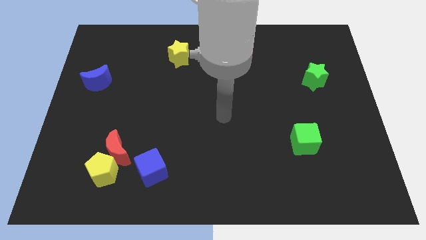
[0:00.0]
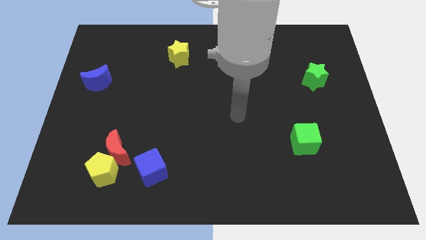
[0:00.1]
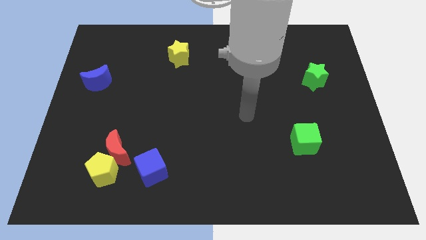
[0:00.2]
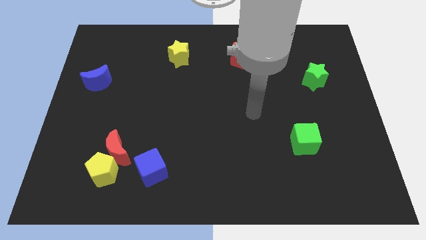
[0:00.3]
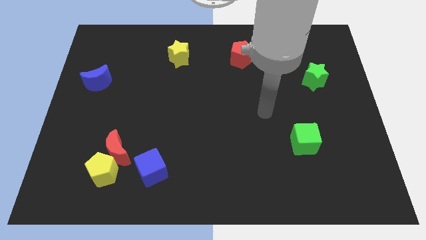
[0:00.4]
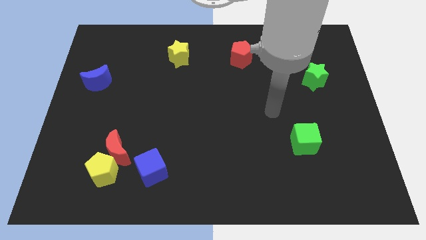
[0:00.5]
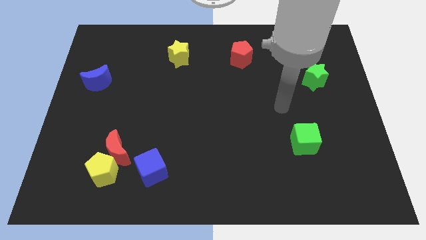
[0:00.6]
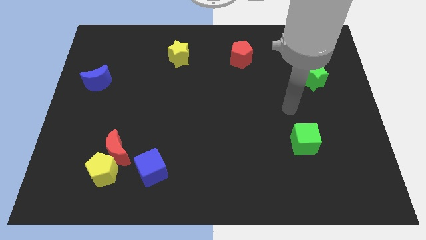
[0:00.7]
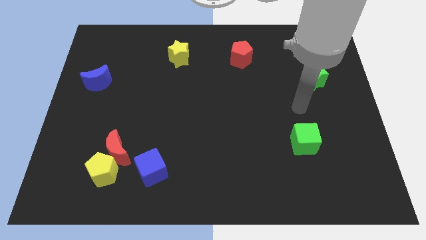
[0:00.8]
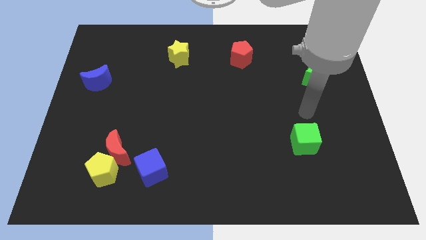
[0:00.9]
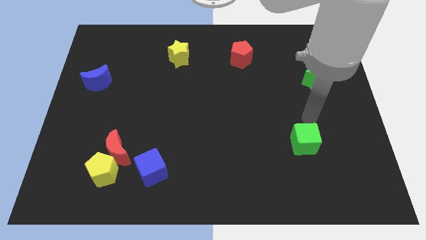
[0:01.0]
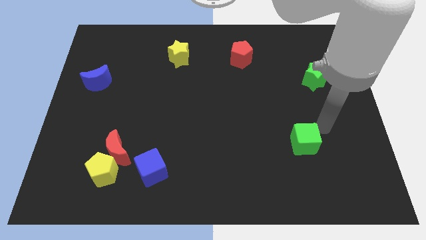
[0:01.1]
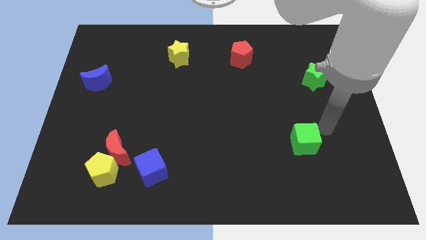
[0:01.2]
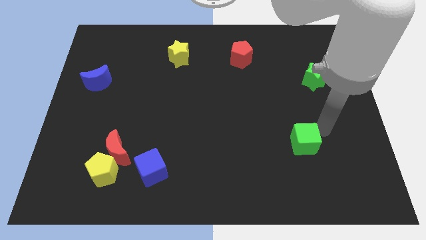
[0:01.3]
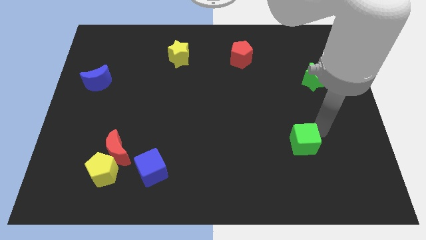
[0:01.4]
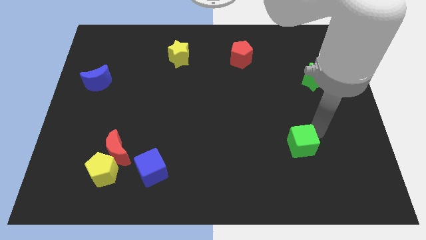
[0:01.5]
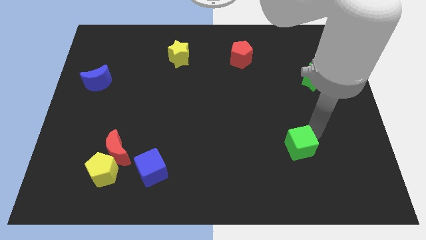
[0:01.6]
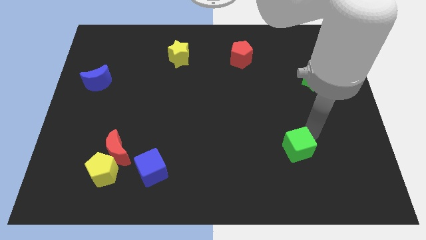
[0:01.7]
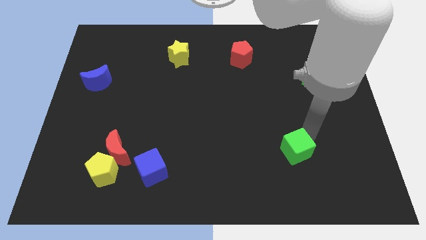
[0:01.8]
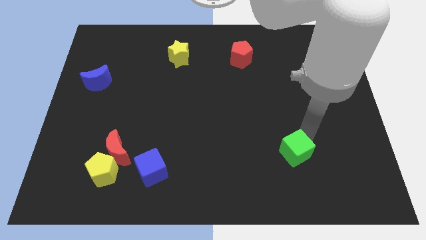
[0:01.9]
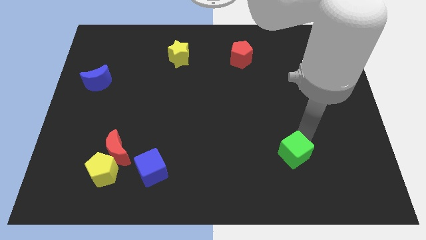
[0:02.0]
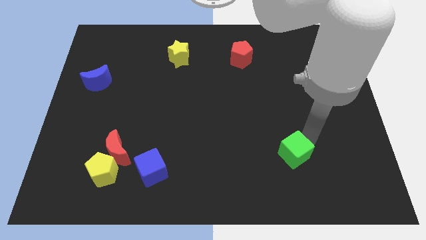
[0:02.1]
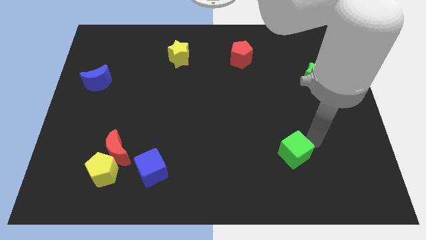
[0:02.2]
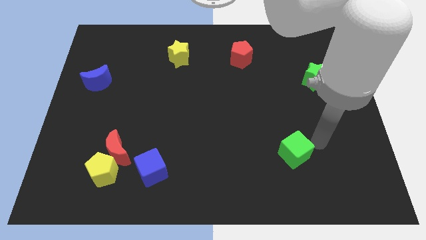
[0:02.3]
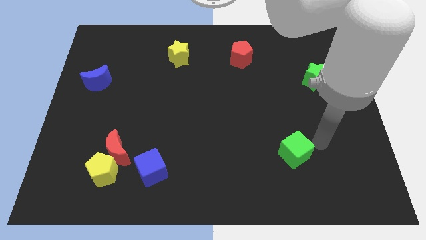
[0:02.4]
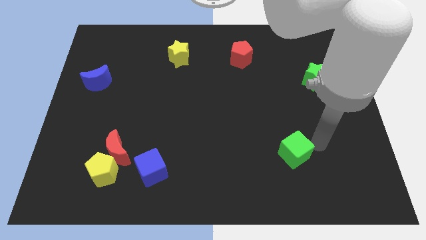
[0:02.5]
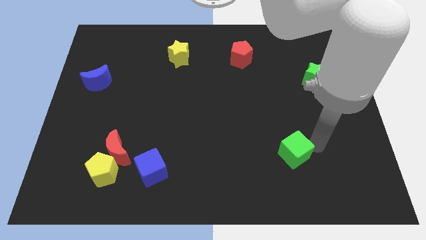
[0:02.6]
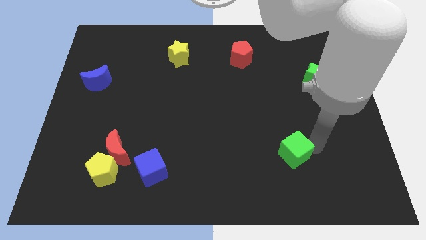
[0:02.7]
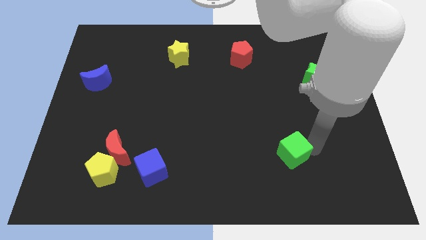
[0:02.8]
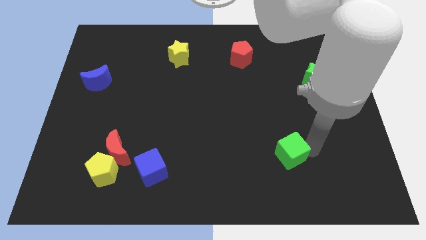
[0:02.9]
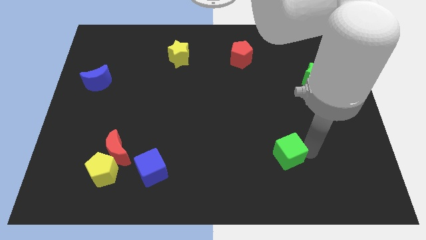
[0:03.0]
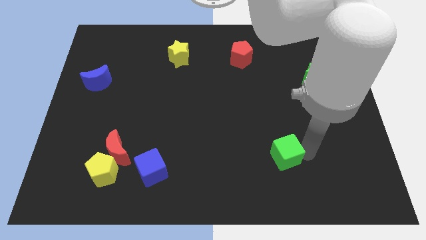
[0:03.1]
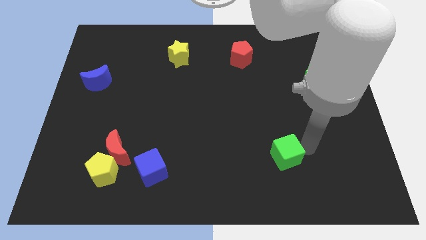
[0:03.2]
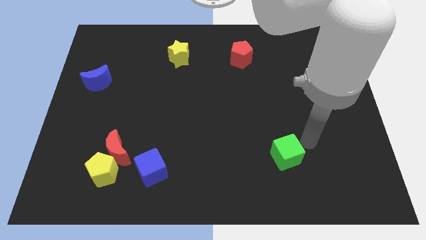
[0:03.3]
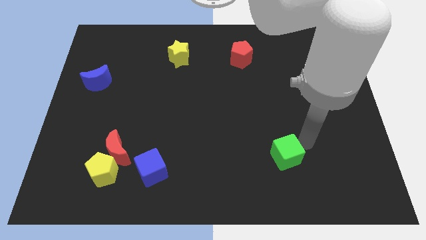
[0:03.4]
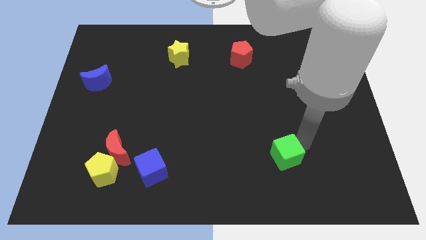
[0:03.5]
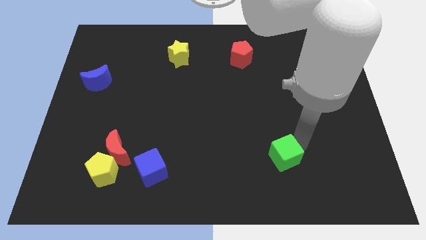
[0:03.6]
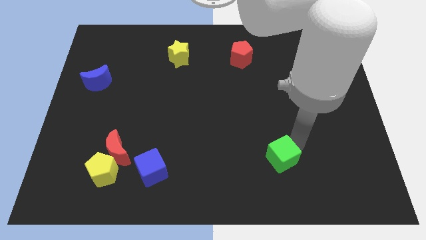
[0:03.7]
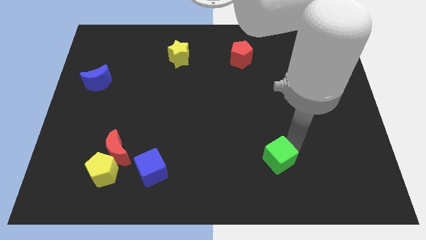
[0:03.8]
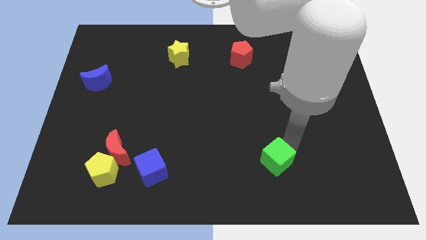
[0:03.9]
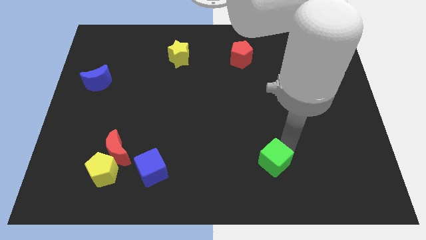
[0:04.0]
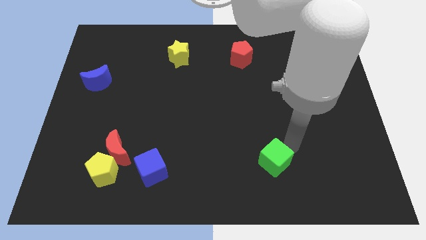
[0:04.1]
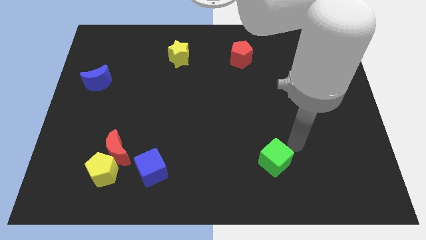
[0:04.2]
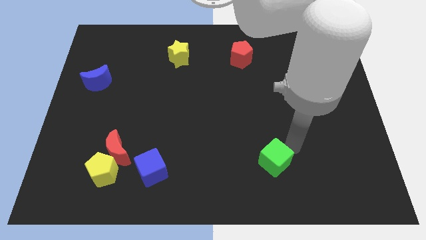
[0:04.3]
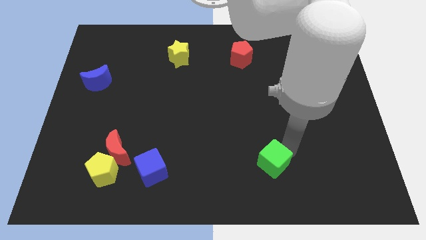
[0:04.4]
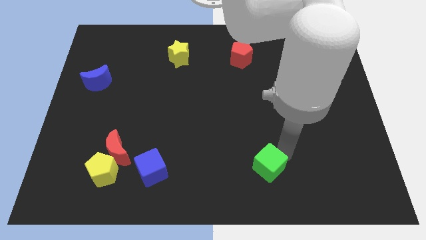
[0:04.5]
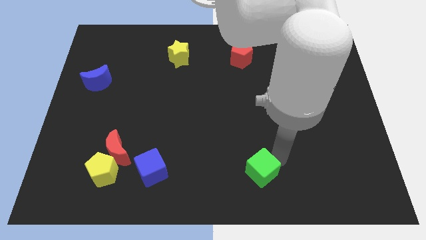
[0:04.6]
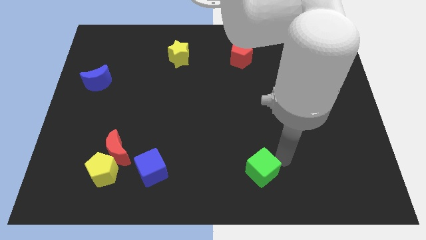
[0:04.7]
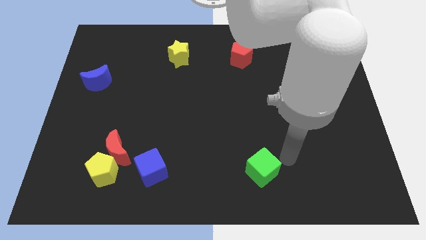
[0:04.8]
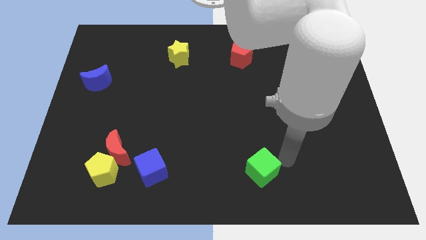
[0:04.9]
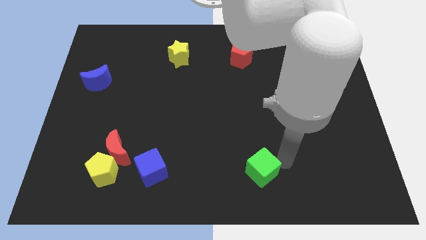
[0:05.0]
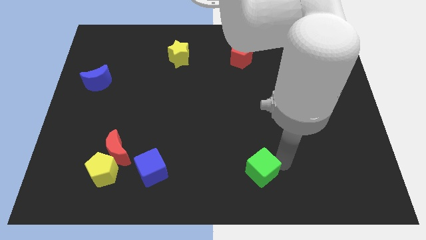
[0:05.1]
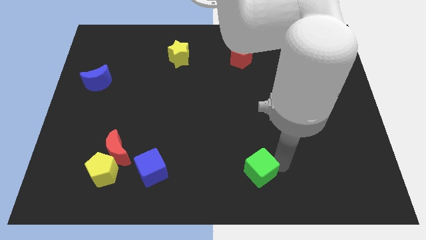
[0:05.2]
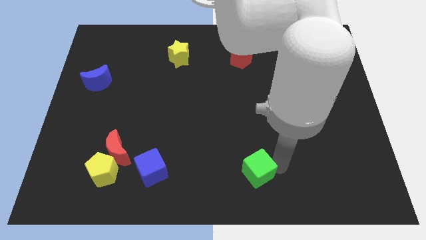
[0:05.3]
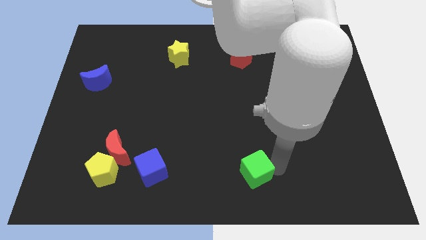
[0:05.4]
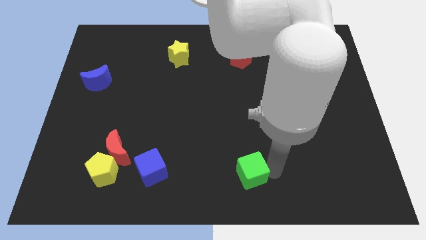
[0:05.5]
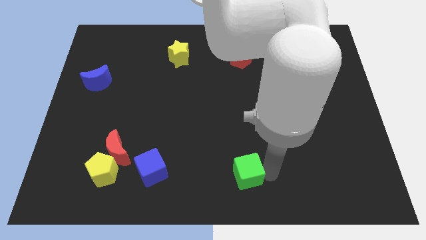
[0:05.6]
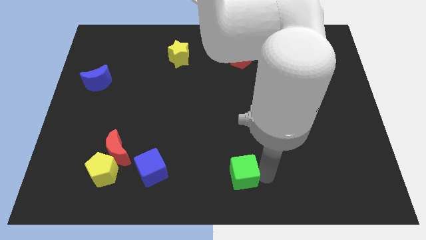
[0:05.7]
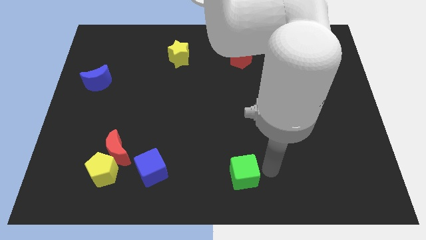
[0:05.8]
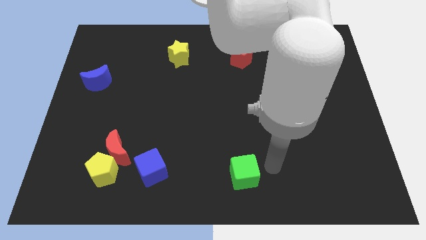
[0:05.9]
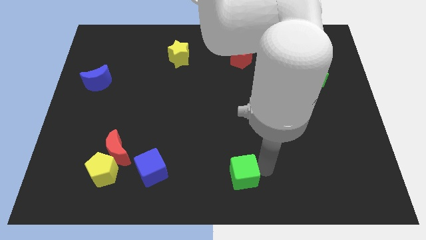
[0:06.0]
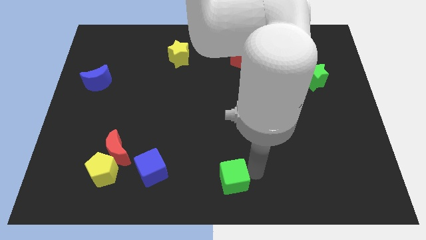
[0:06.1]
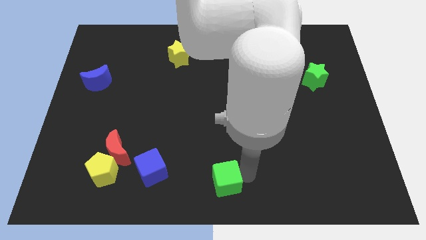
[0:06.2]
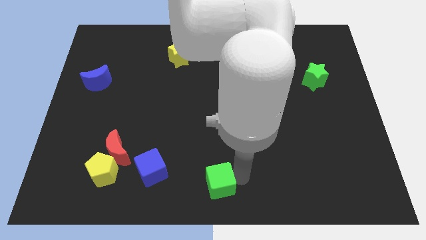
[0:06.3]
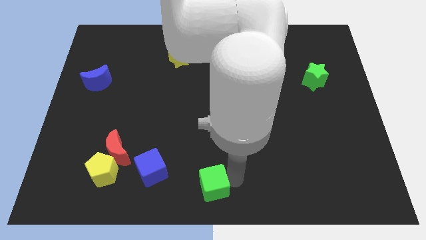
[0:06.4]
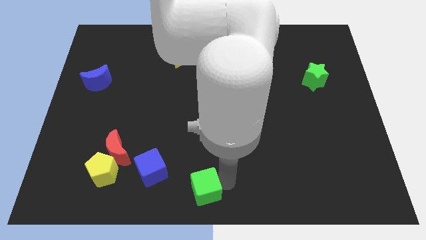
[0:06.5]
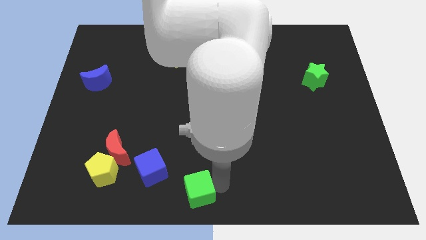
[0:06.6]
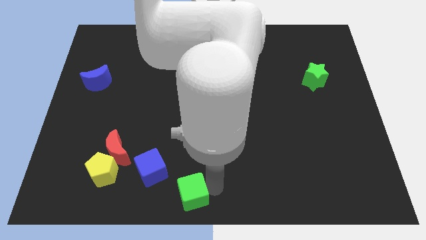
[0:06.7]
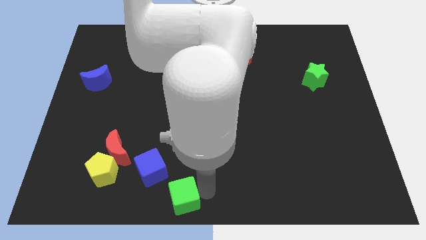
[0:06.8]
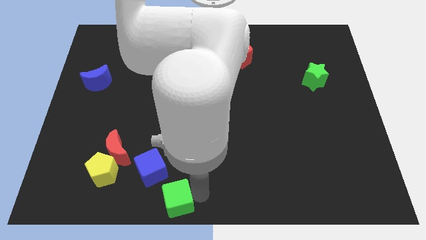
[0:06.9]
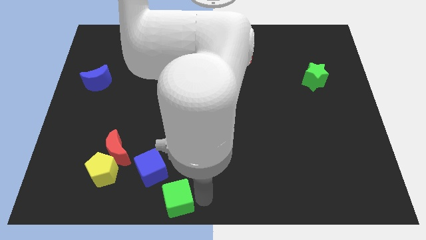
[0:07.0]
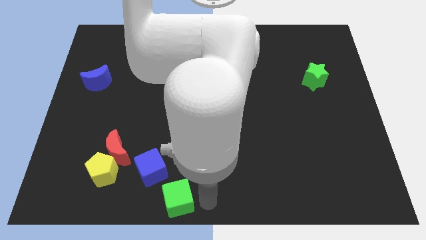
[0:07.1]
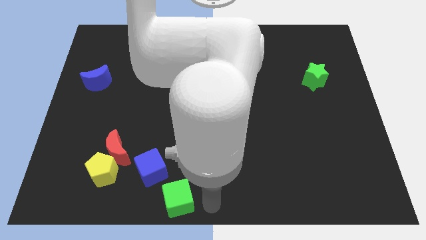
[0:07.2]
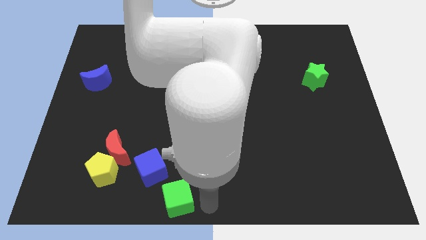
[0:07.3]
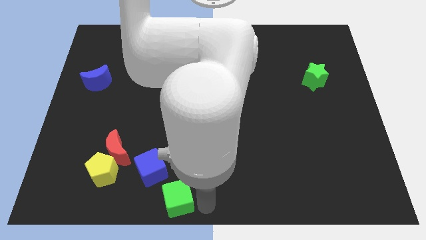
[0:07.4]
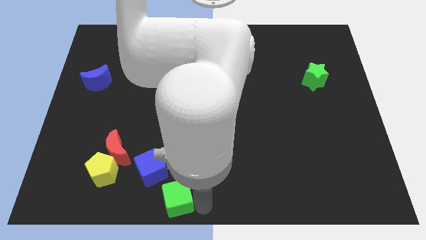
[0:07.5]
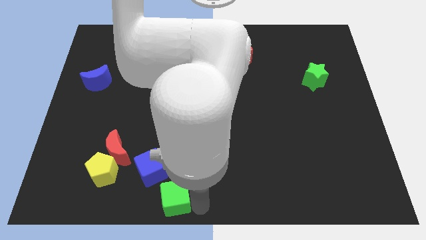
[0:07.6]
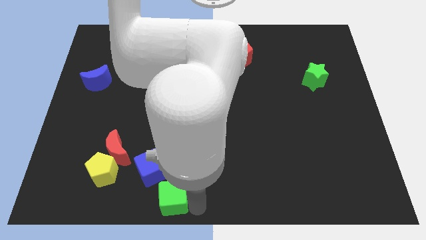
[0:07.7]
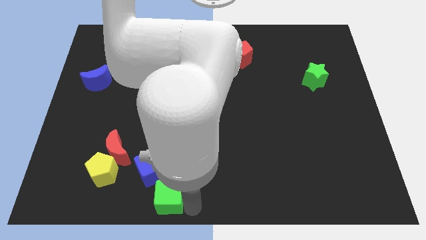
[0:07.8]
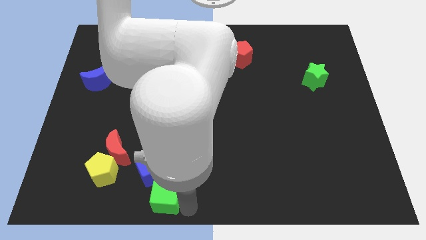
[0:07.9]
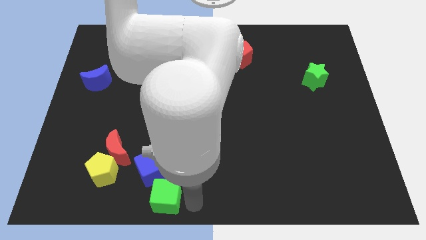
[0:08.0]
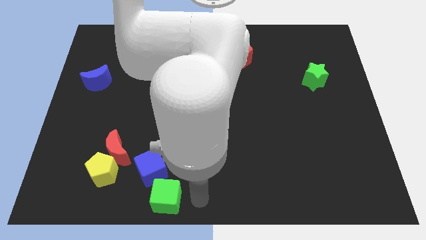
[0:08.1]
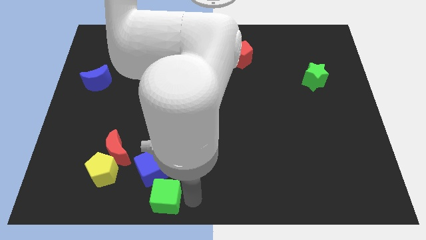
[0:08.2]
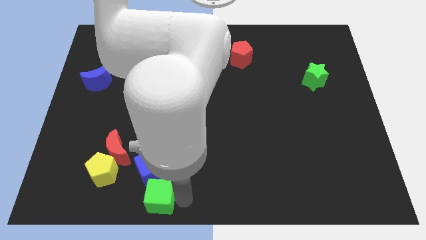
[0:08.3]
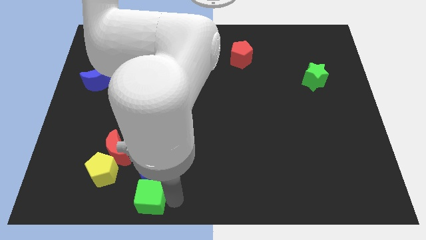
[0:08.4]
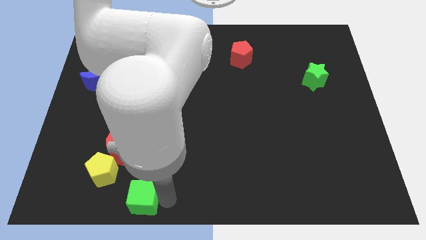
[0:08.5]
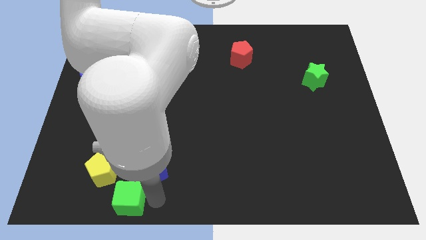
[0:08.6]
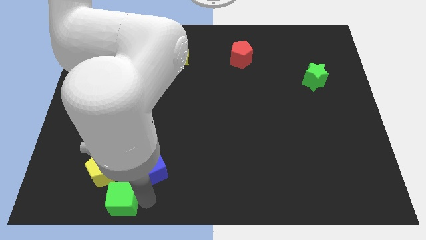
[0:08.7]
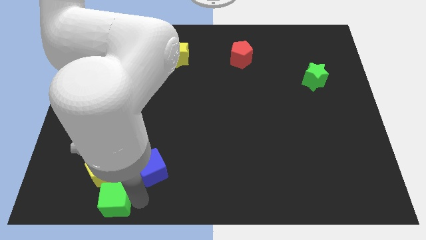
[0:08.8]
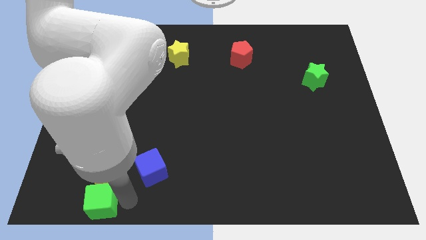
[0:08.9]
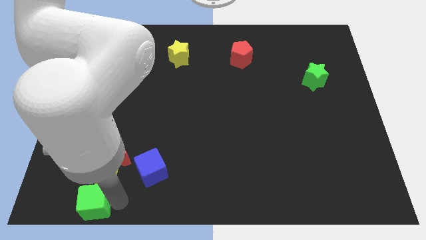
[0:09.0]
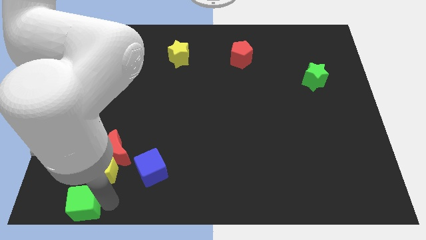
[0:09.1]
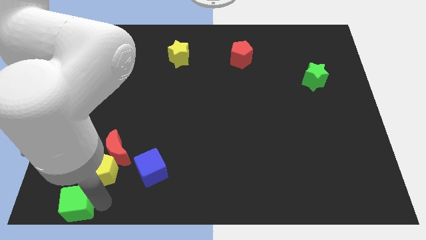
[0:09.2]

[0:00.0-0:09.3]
slide the green cube to the bottom left corner
